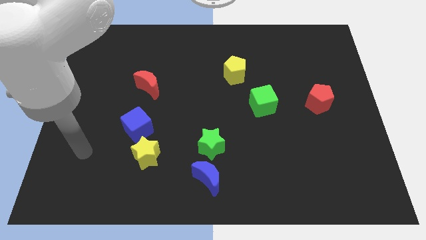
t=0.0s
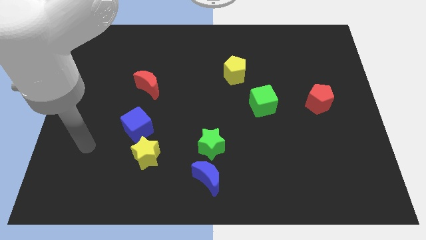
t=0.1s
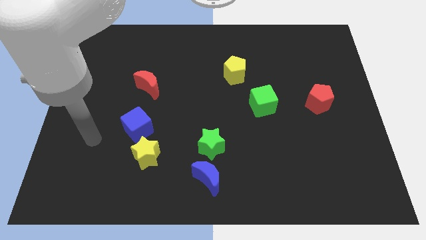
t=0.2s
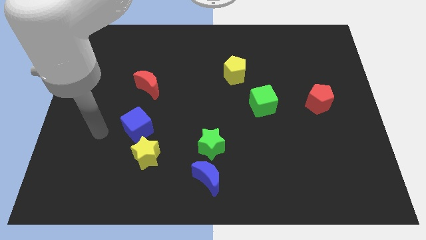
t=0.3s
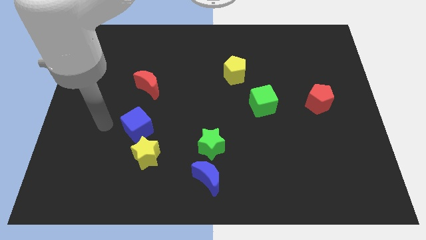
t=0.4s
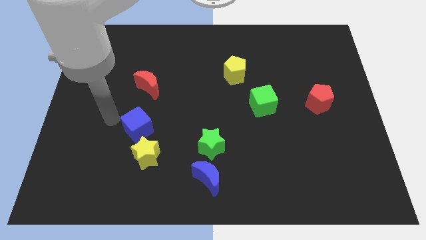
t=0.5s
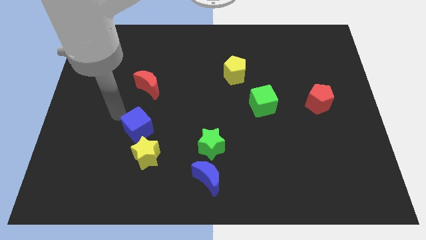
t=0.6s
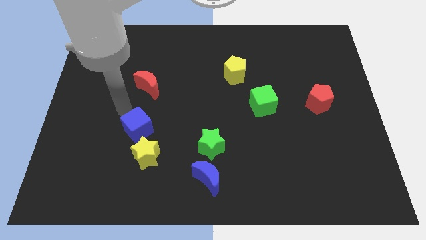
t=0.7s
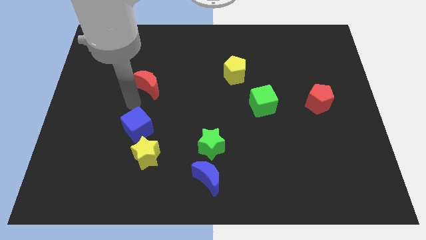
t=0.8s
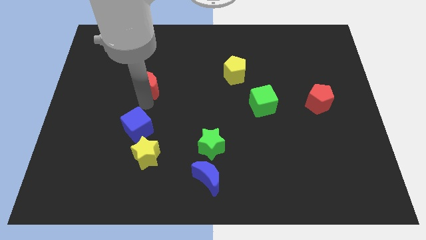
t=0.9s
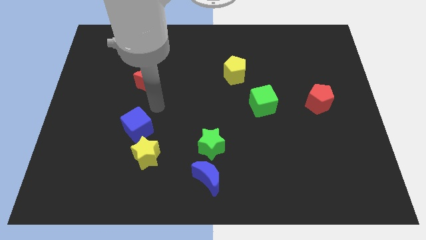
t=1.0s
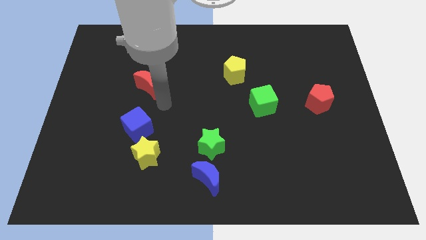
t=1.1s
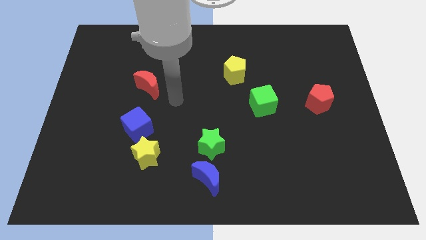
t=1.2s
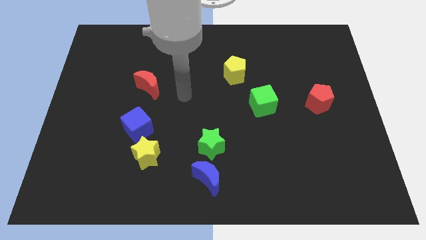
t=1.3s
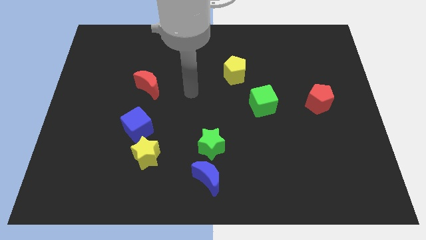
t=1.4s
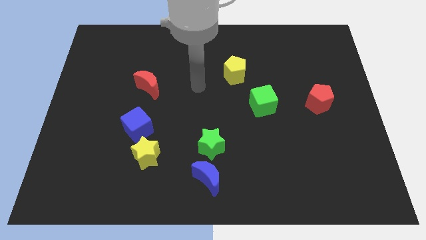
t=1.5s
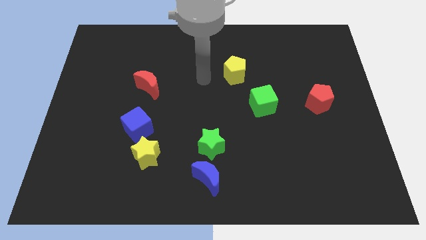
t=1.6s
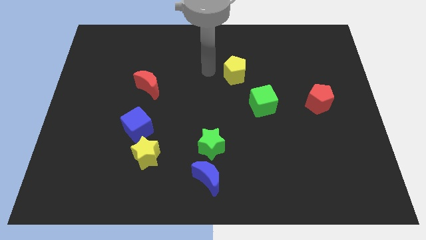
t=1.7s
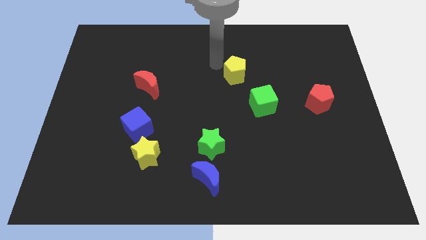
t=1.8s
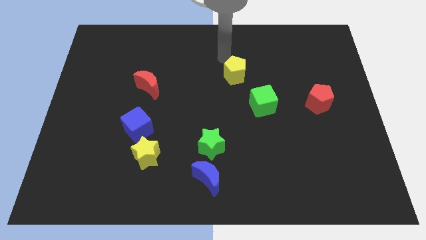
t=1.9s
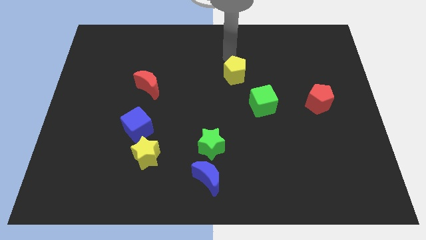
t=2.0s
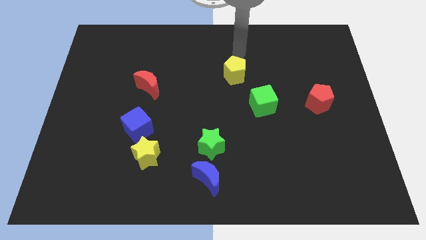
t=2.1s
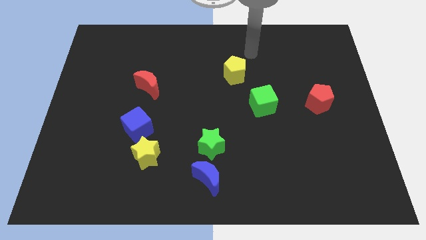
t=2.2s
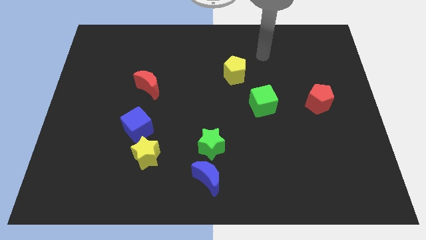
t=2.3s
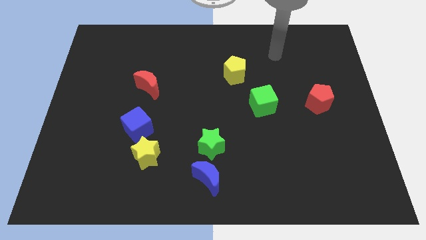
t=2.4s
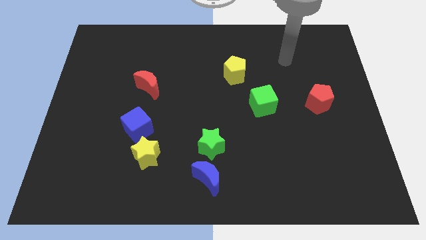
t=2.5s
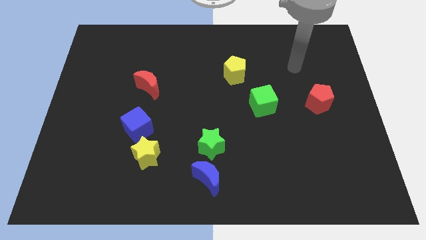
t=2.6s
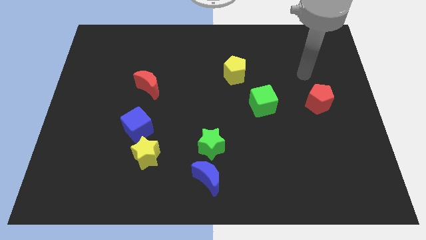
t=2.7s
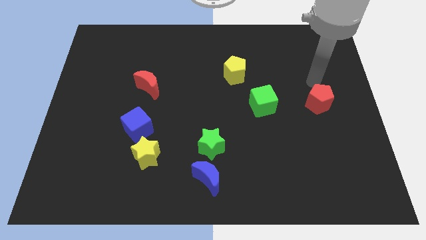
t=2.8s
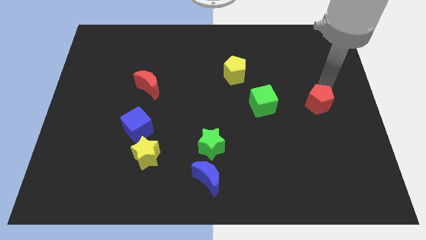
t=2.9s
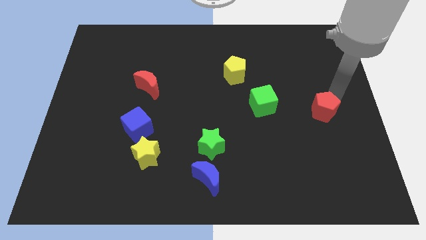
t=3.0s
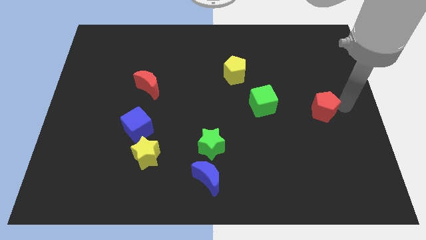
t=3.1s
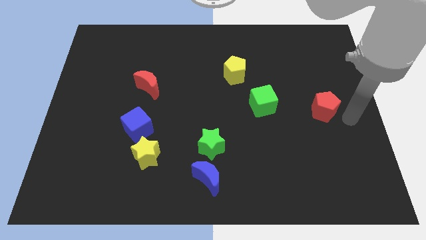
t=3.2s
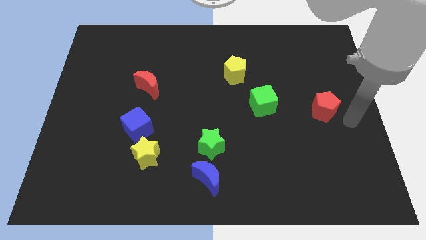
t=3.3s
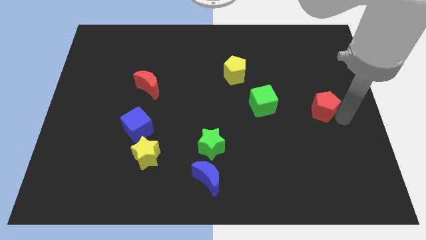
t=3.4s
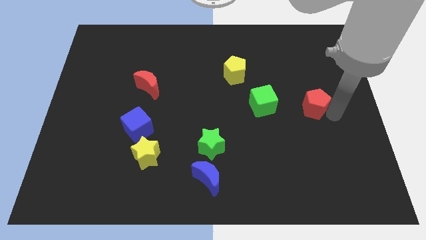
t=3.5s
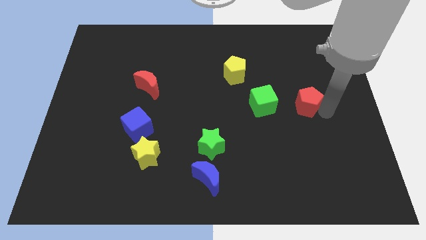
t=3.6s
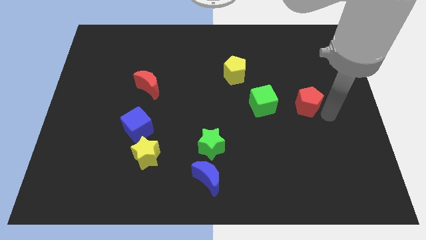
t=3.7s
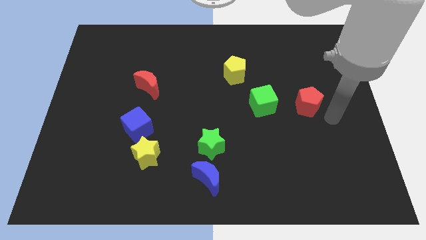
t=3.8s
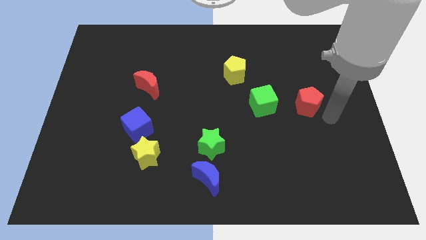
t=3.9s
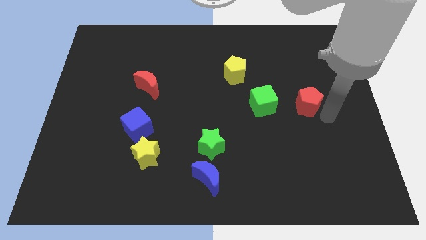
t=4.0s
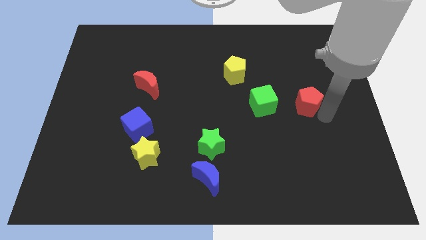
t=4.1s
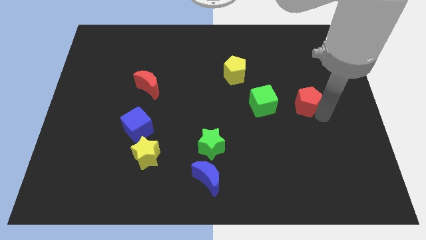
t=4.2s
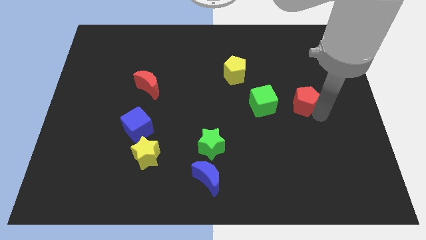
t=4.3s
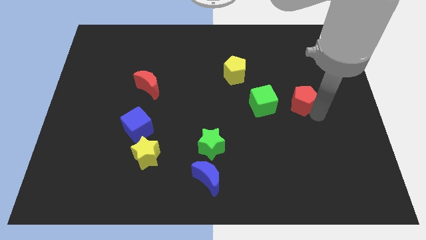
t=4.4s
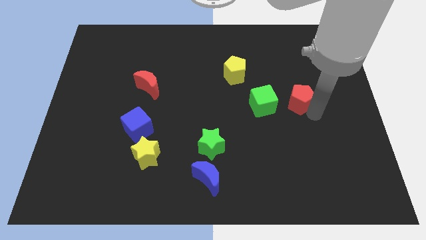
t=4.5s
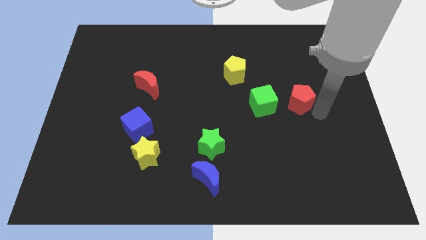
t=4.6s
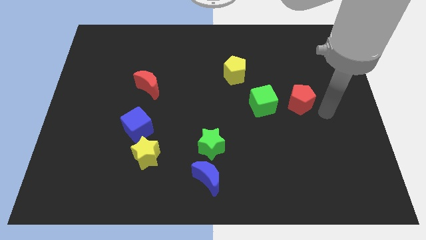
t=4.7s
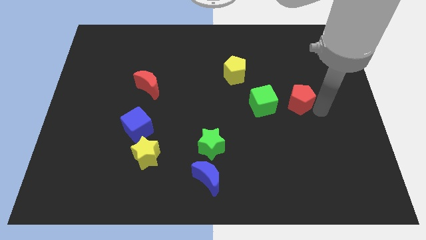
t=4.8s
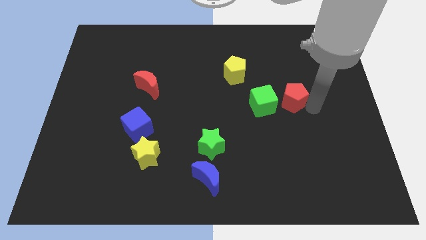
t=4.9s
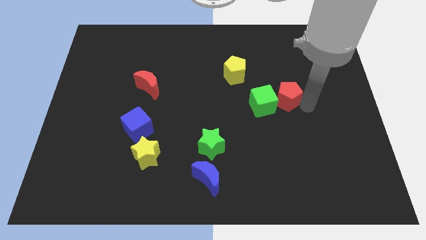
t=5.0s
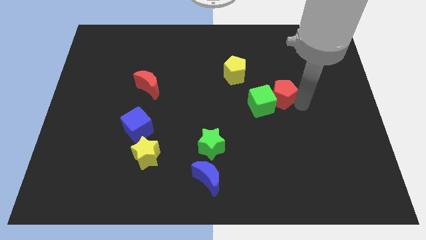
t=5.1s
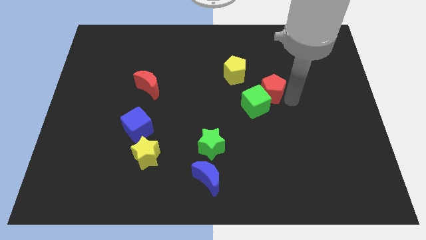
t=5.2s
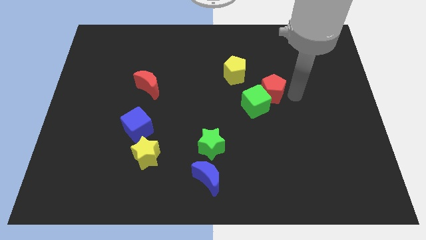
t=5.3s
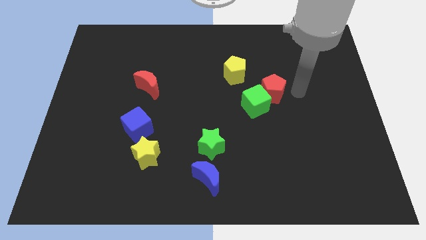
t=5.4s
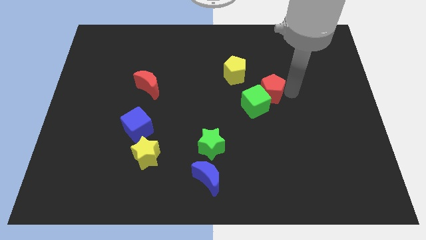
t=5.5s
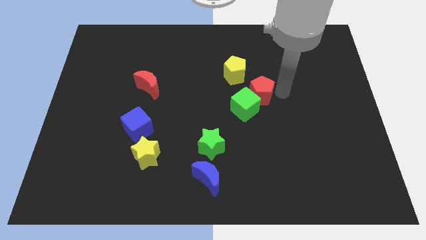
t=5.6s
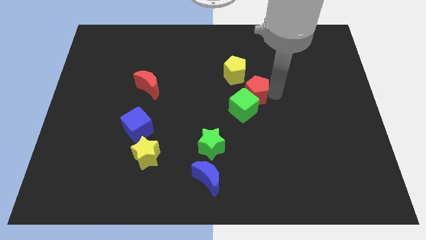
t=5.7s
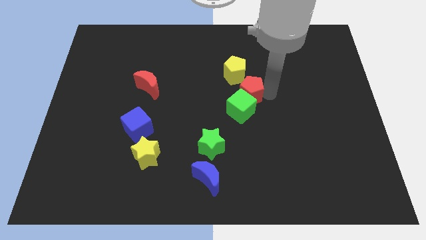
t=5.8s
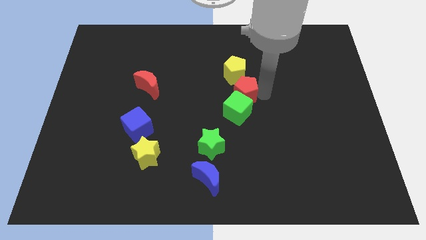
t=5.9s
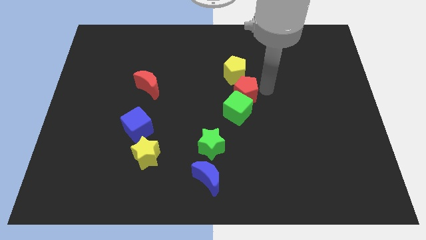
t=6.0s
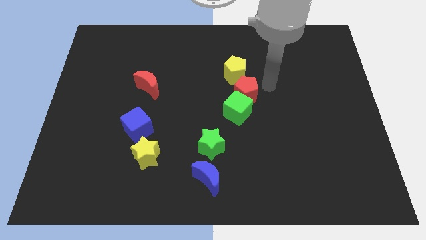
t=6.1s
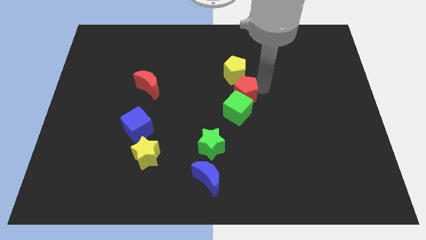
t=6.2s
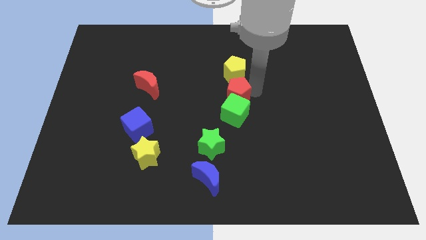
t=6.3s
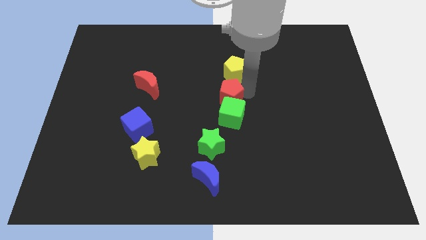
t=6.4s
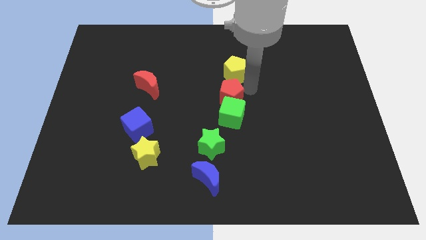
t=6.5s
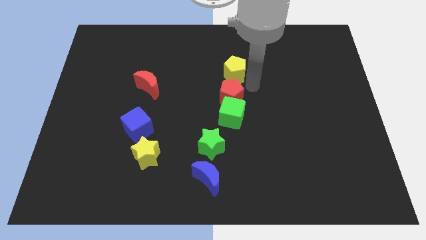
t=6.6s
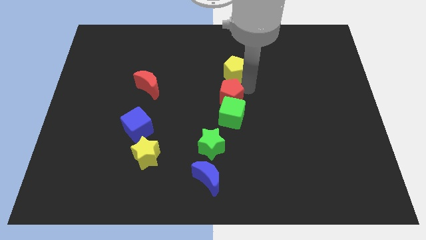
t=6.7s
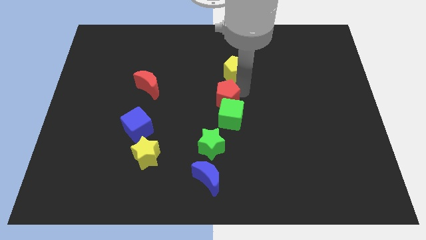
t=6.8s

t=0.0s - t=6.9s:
move the red pentagon above the green star
